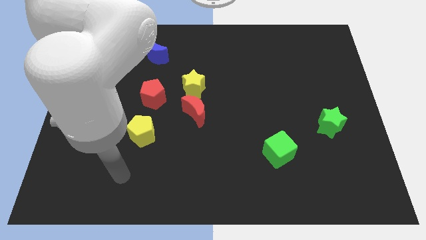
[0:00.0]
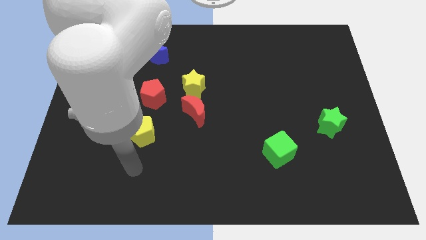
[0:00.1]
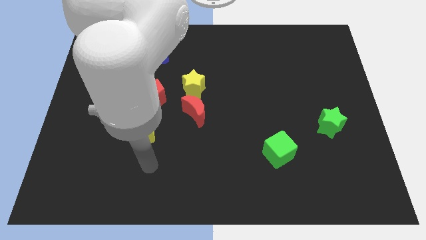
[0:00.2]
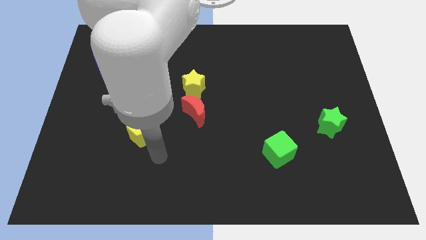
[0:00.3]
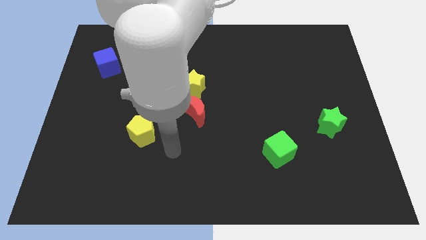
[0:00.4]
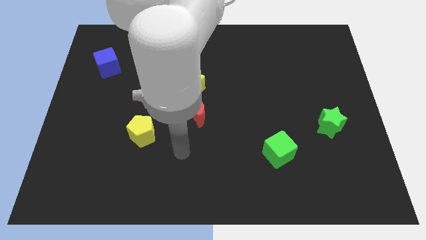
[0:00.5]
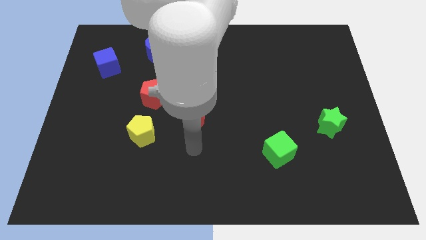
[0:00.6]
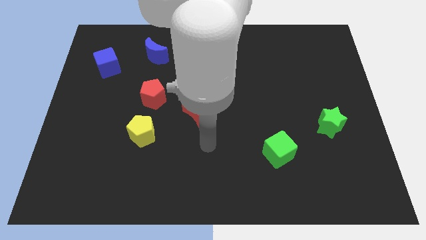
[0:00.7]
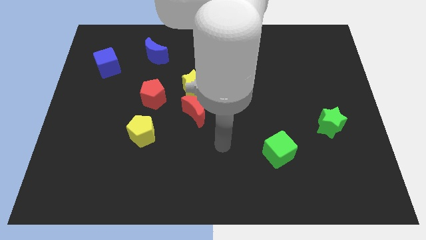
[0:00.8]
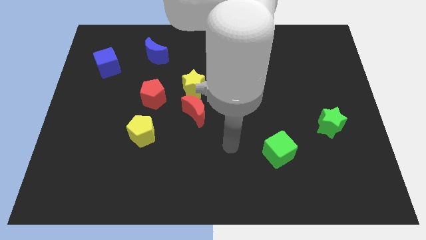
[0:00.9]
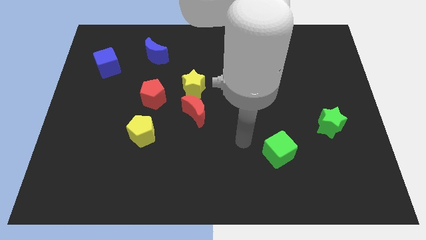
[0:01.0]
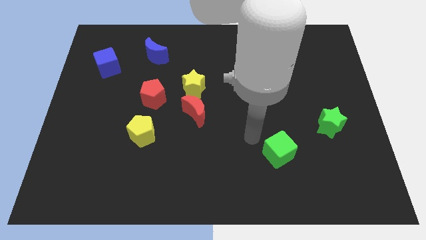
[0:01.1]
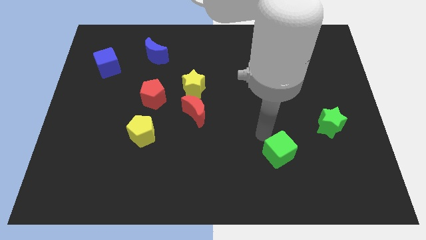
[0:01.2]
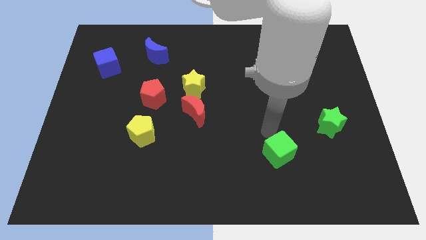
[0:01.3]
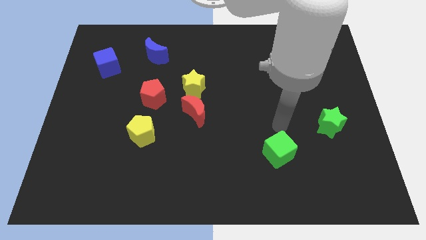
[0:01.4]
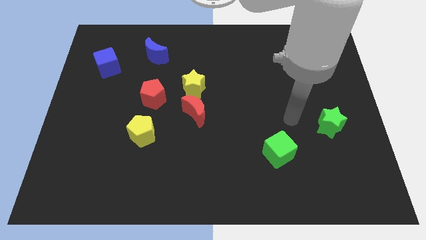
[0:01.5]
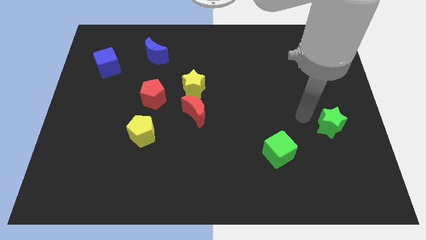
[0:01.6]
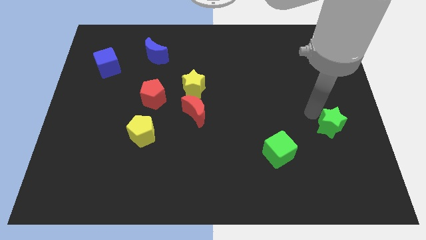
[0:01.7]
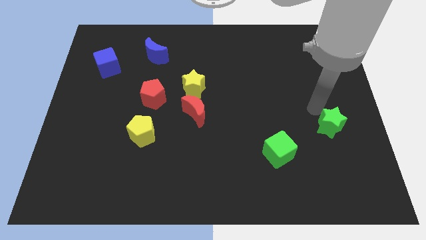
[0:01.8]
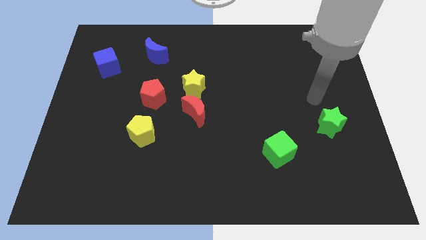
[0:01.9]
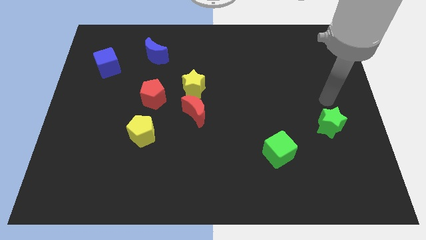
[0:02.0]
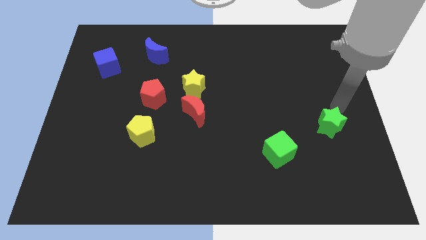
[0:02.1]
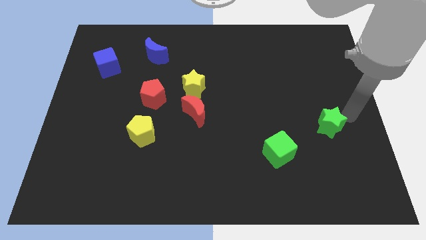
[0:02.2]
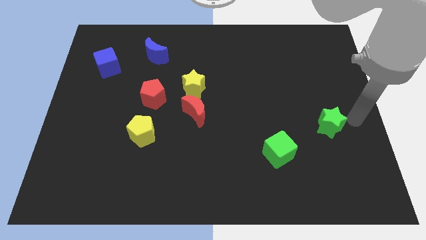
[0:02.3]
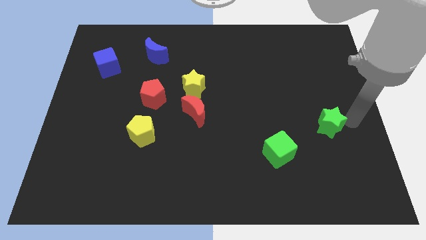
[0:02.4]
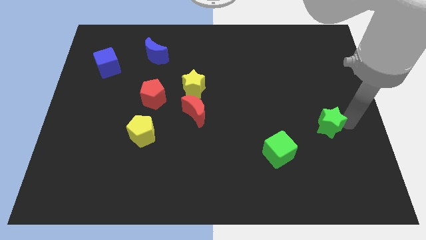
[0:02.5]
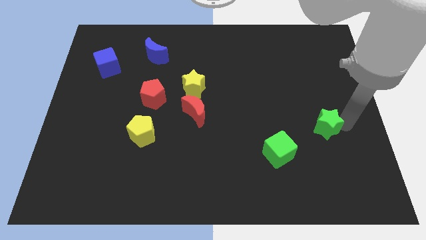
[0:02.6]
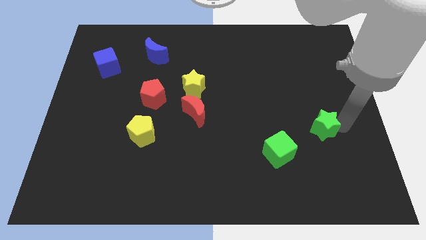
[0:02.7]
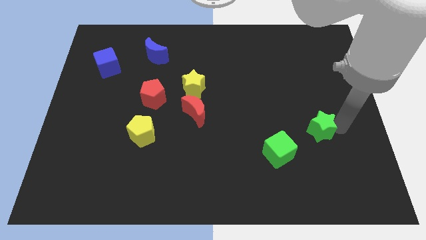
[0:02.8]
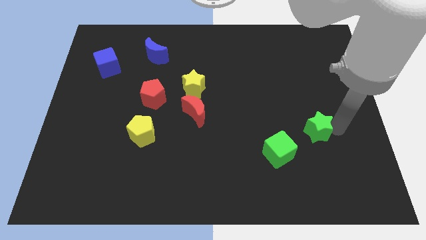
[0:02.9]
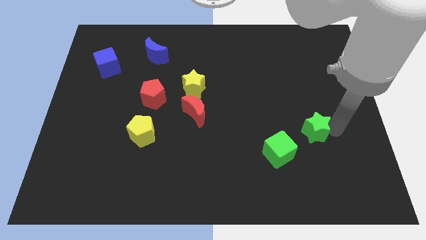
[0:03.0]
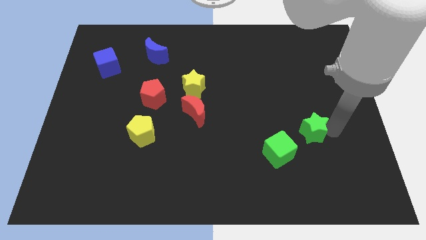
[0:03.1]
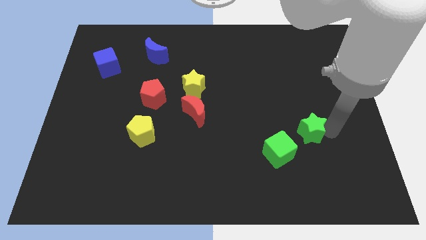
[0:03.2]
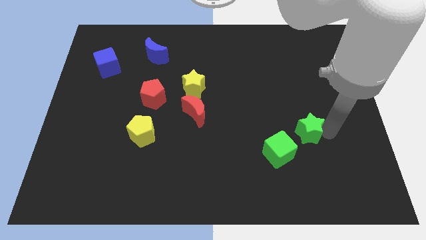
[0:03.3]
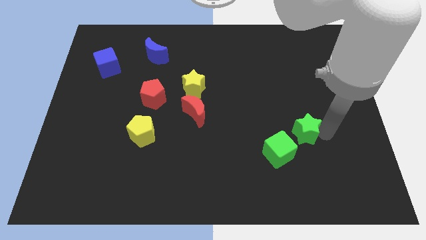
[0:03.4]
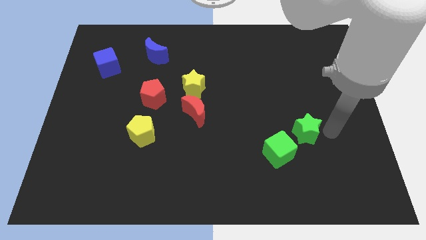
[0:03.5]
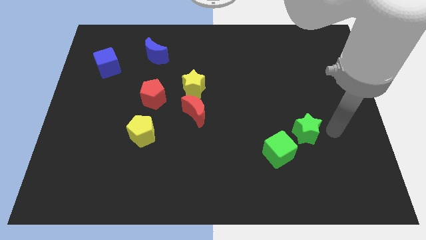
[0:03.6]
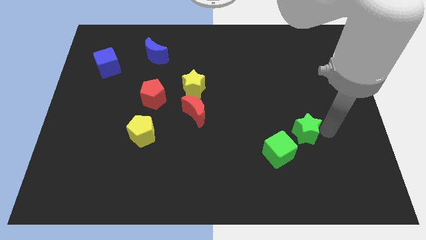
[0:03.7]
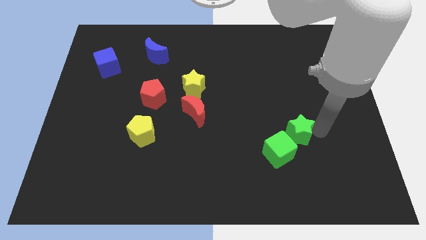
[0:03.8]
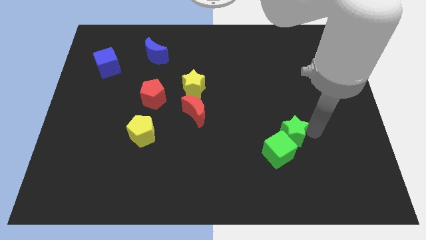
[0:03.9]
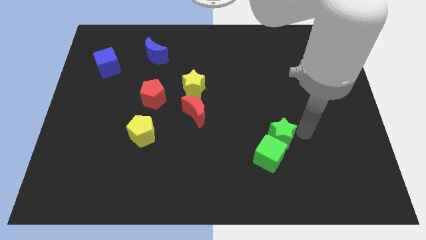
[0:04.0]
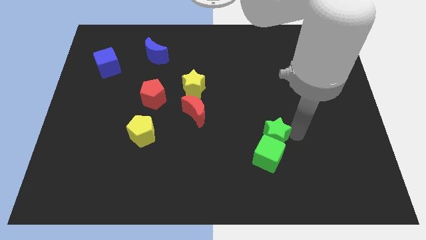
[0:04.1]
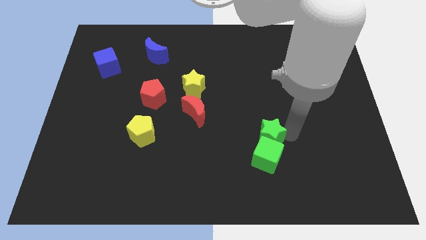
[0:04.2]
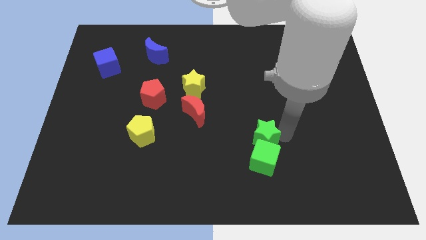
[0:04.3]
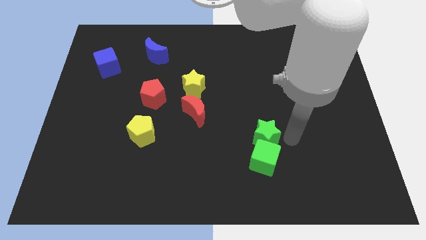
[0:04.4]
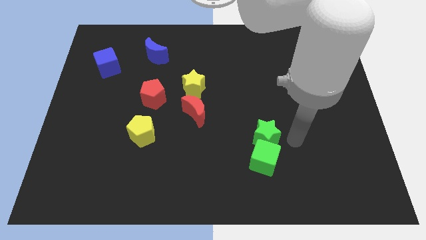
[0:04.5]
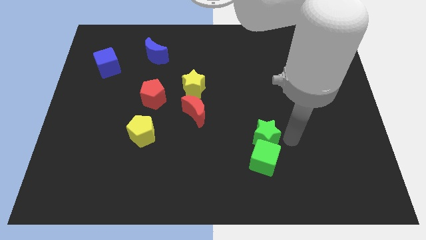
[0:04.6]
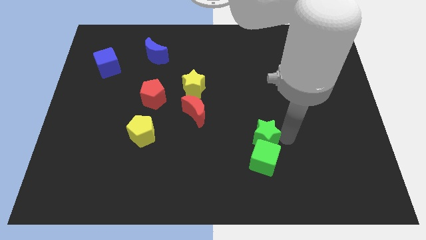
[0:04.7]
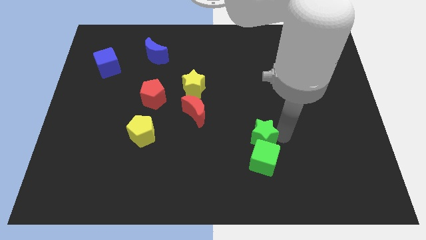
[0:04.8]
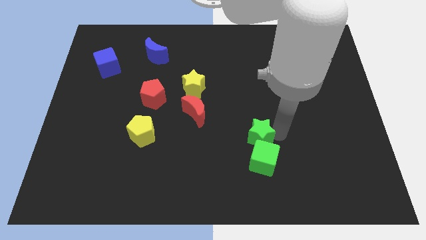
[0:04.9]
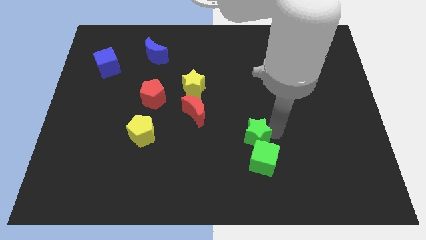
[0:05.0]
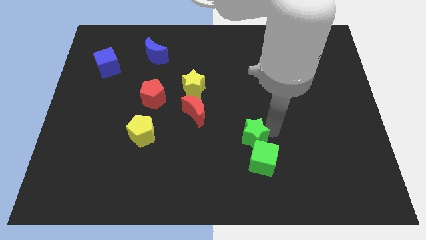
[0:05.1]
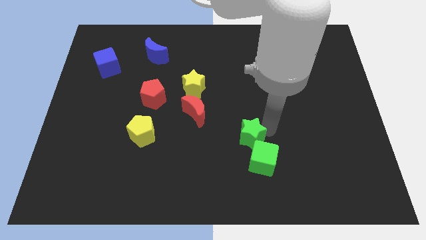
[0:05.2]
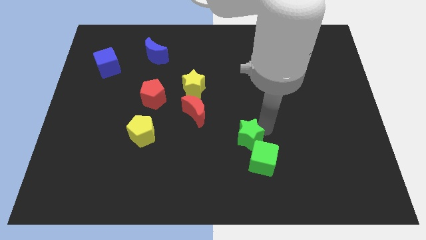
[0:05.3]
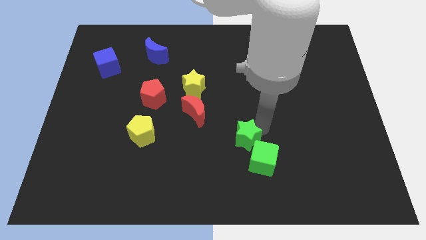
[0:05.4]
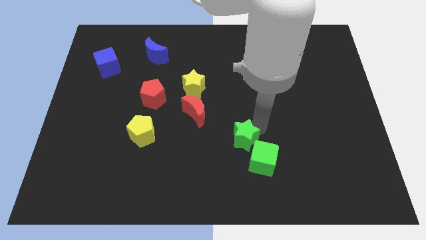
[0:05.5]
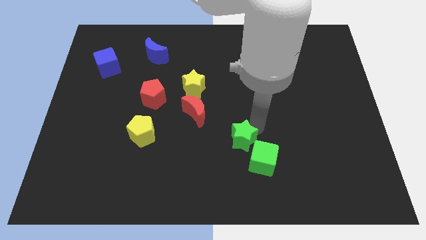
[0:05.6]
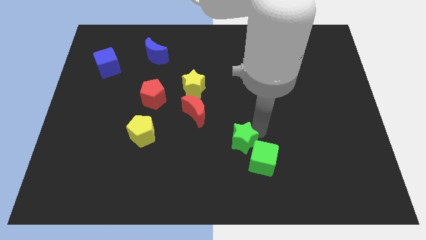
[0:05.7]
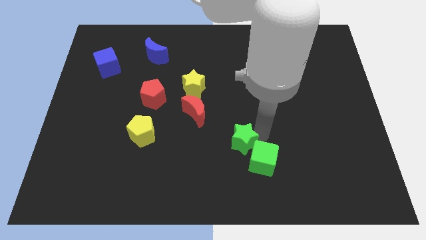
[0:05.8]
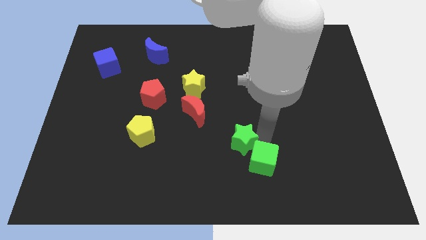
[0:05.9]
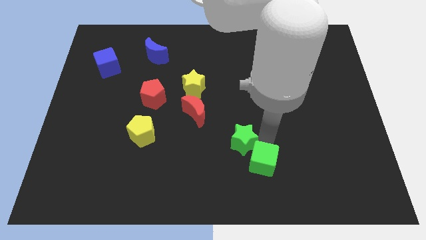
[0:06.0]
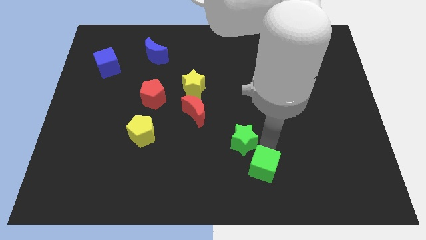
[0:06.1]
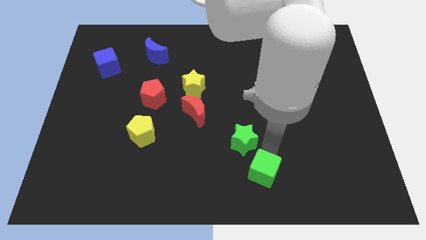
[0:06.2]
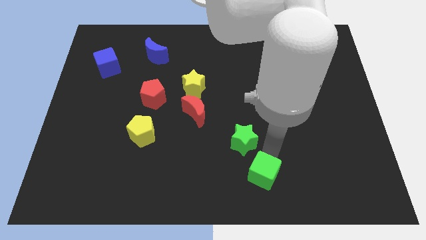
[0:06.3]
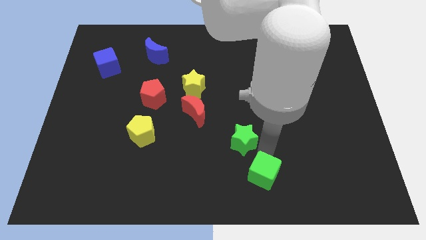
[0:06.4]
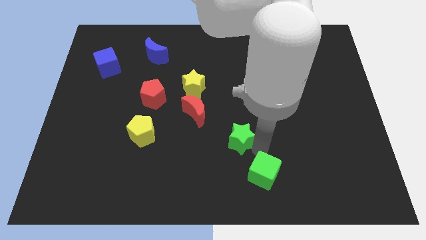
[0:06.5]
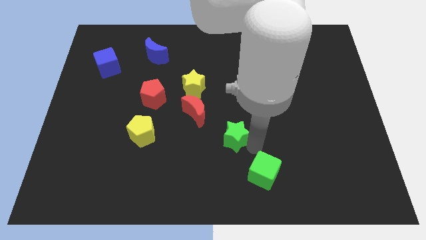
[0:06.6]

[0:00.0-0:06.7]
push the green star to the left

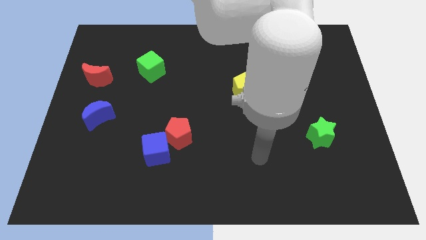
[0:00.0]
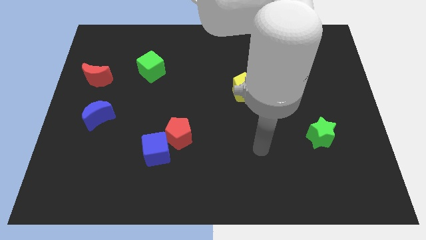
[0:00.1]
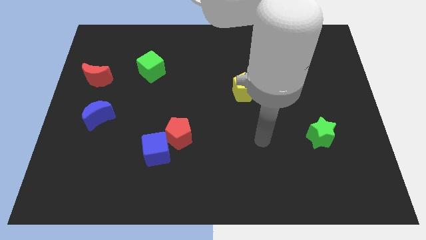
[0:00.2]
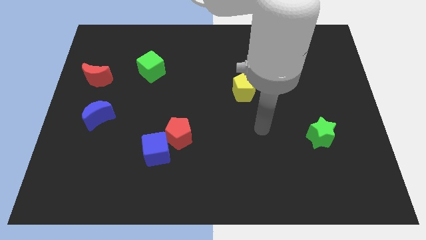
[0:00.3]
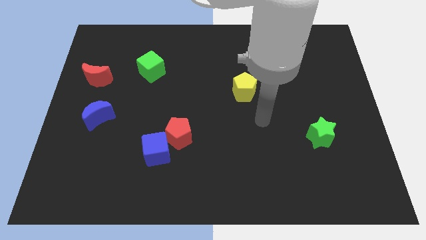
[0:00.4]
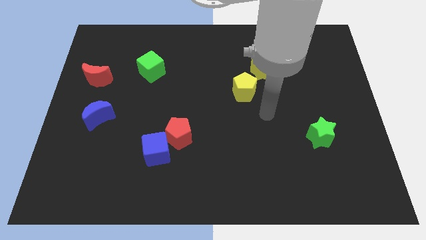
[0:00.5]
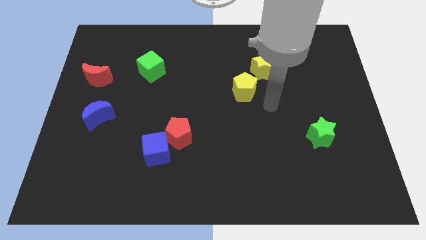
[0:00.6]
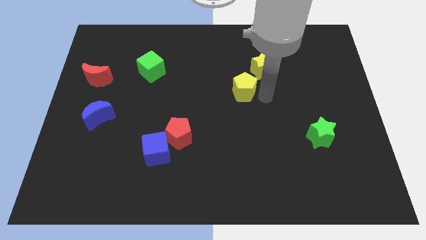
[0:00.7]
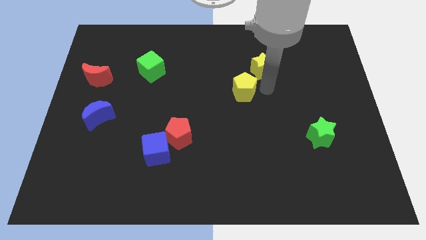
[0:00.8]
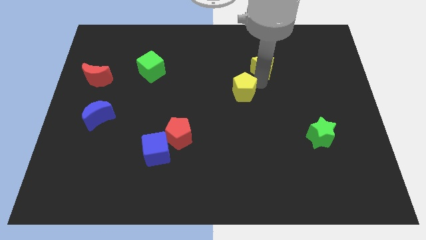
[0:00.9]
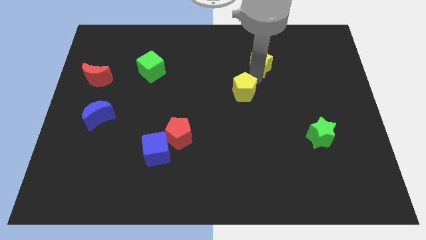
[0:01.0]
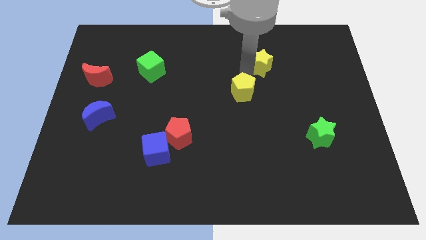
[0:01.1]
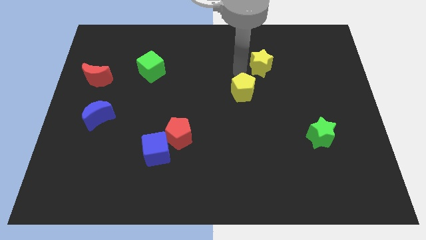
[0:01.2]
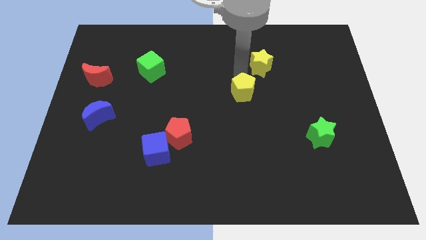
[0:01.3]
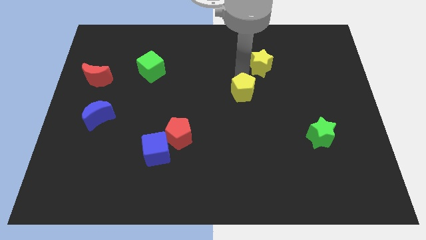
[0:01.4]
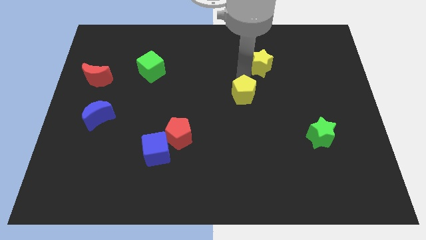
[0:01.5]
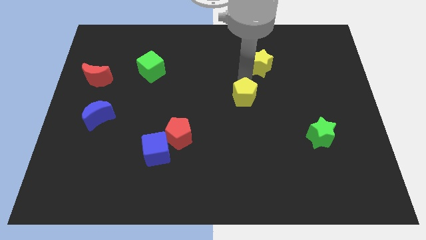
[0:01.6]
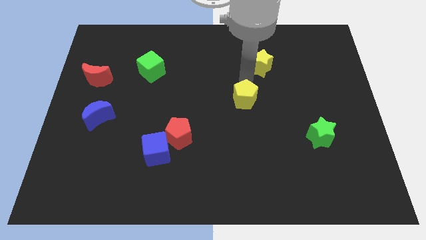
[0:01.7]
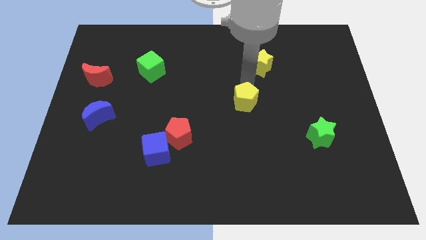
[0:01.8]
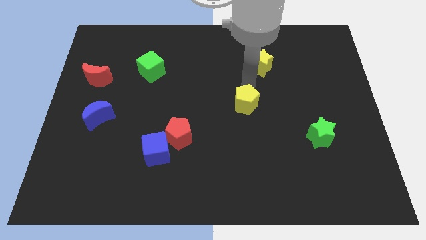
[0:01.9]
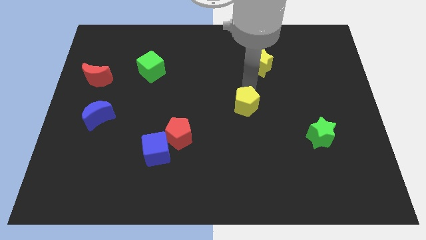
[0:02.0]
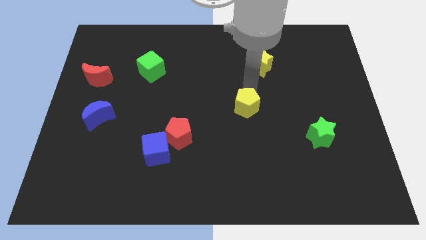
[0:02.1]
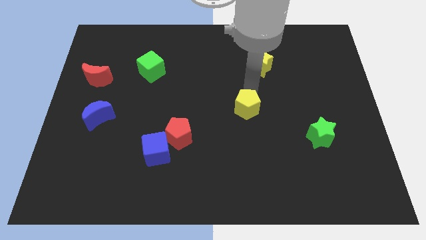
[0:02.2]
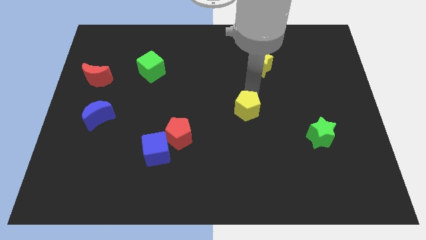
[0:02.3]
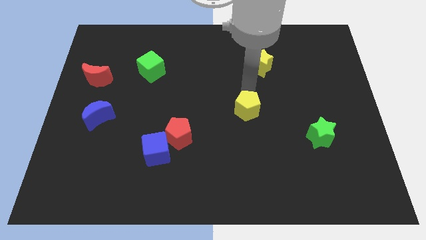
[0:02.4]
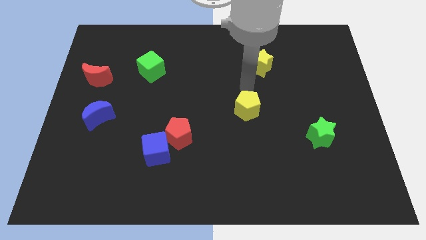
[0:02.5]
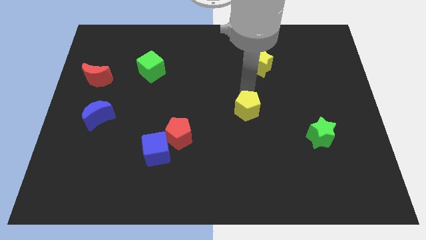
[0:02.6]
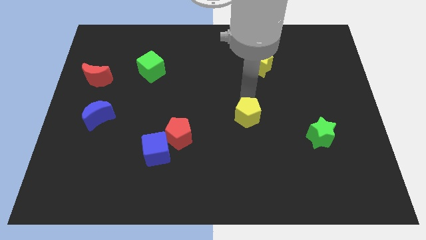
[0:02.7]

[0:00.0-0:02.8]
push the yellow pentagon down a little
